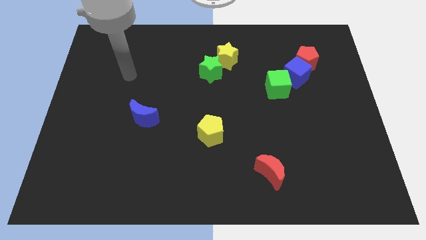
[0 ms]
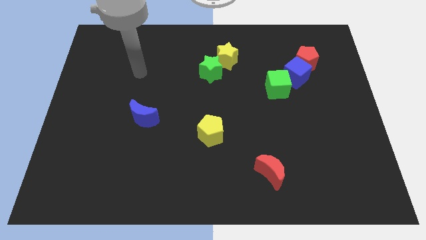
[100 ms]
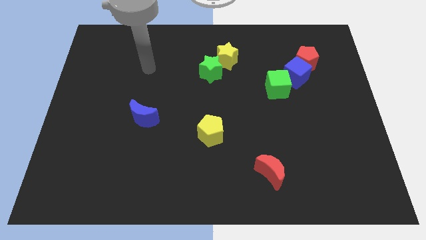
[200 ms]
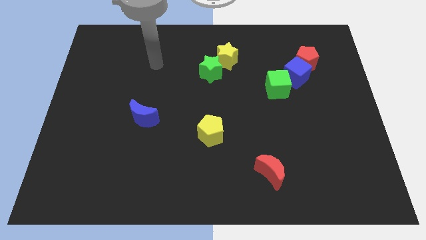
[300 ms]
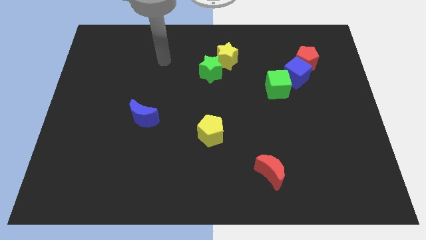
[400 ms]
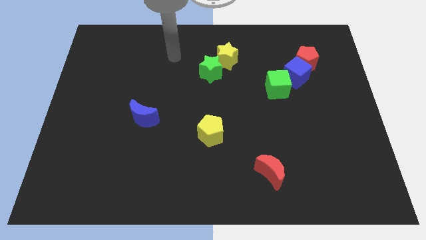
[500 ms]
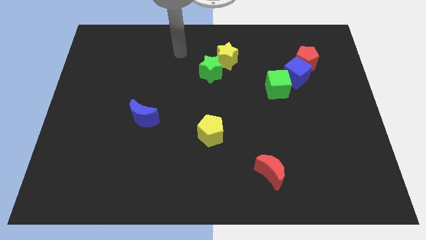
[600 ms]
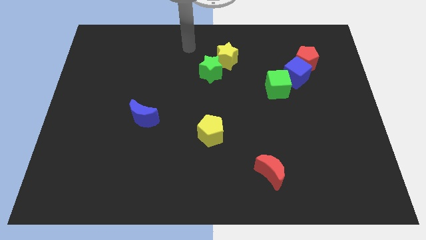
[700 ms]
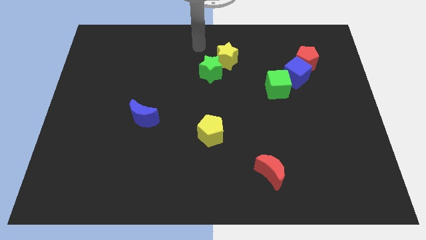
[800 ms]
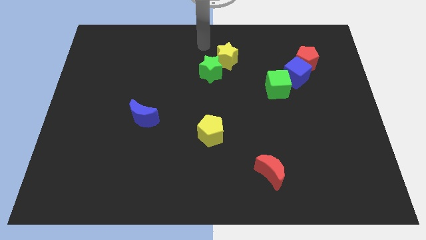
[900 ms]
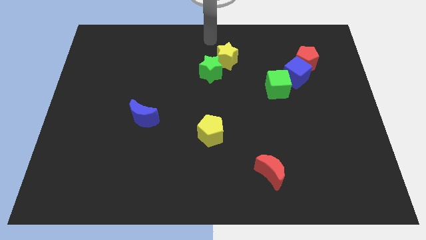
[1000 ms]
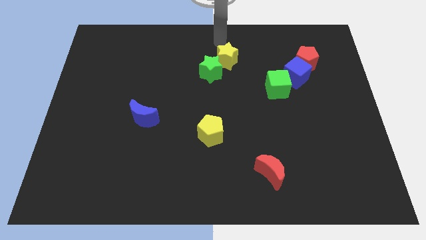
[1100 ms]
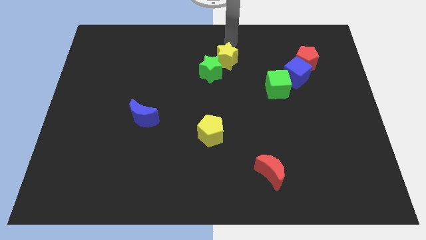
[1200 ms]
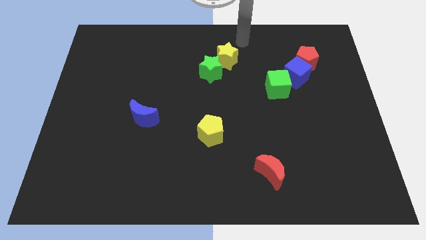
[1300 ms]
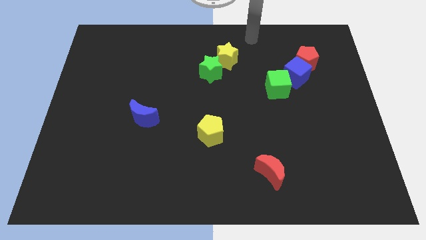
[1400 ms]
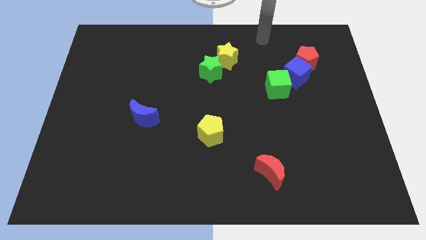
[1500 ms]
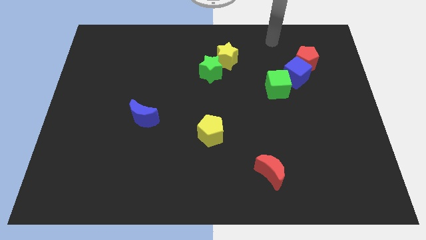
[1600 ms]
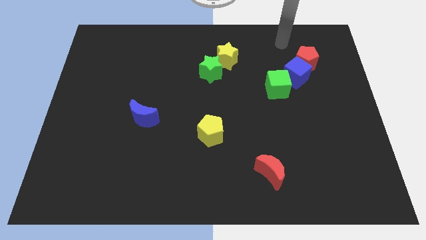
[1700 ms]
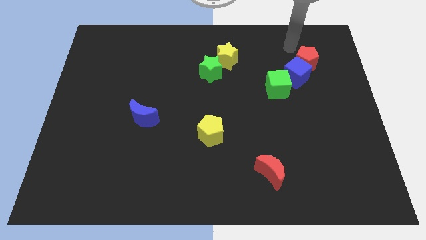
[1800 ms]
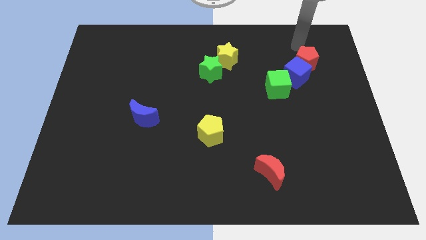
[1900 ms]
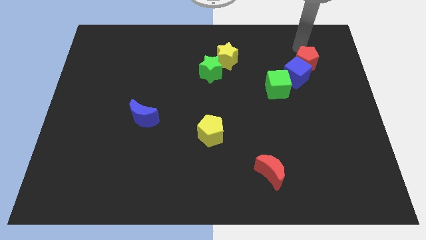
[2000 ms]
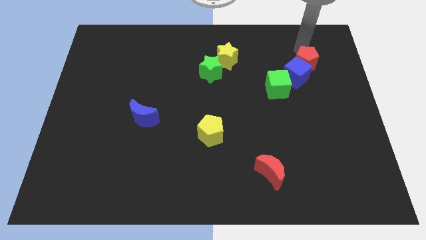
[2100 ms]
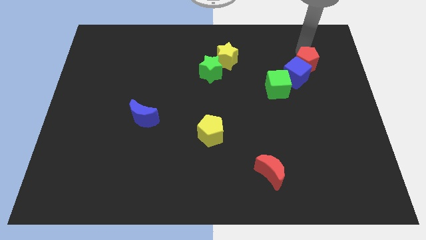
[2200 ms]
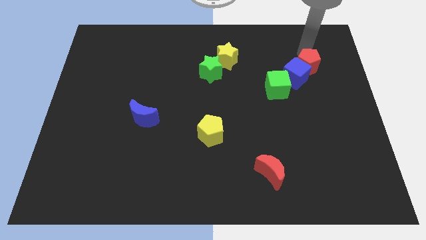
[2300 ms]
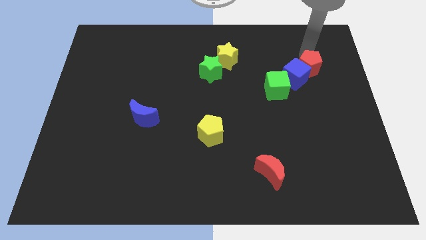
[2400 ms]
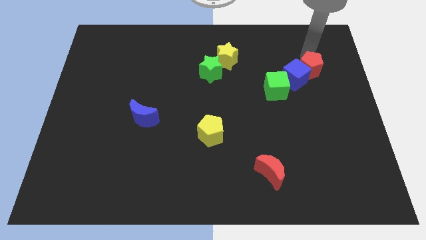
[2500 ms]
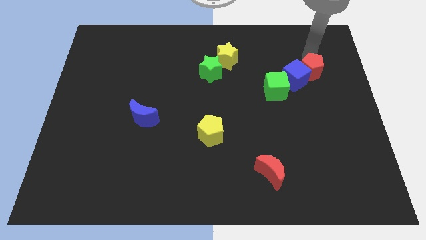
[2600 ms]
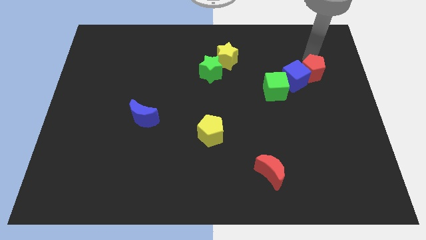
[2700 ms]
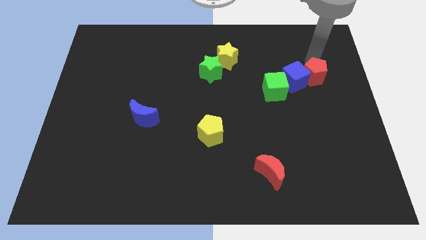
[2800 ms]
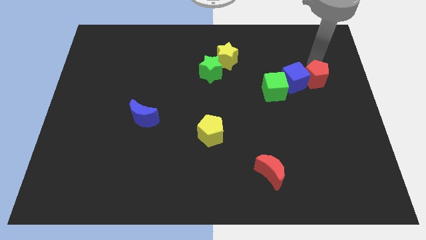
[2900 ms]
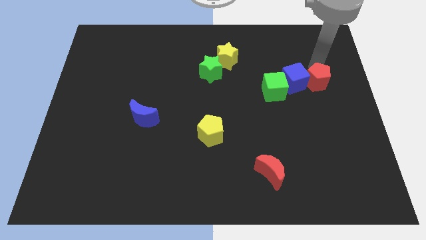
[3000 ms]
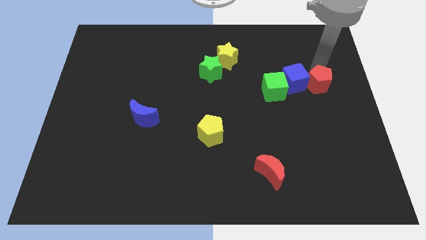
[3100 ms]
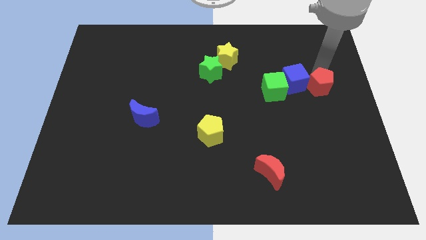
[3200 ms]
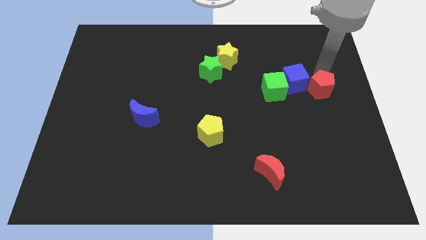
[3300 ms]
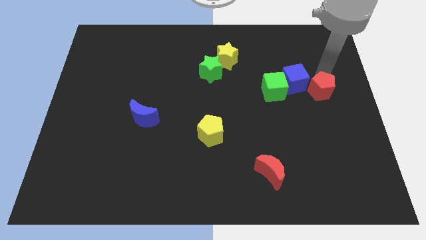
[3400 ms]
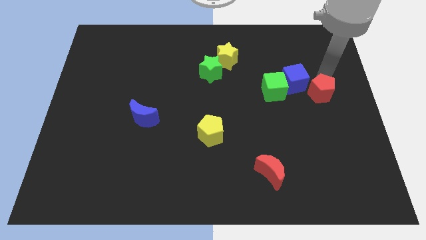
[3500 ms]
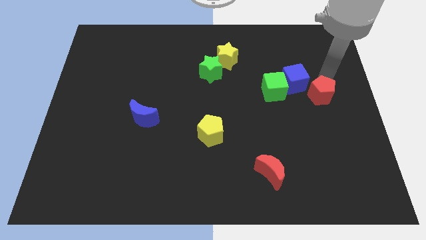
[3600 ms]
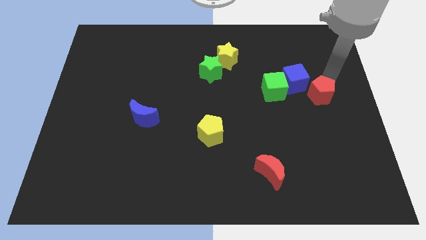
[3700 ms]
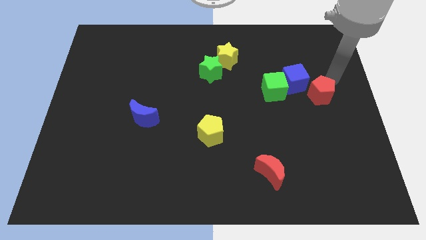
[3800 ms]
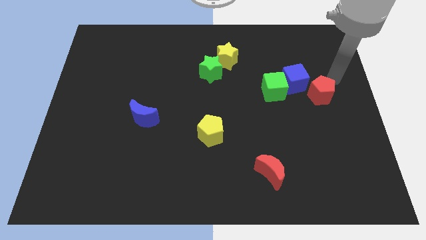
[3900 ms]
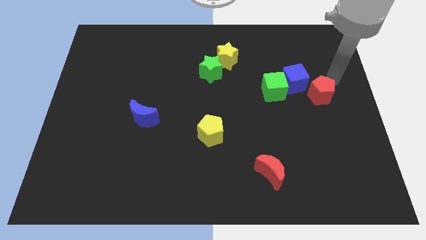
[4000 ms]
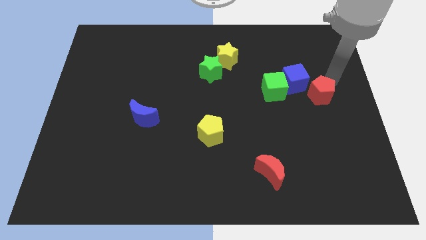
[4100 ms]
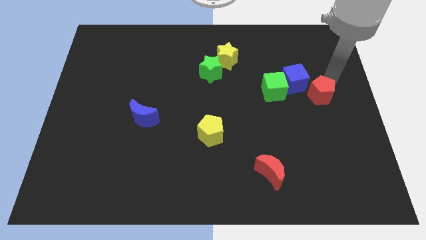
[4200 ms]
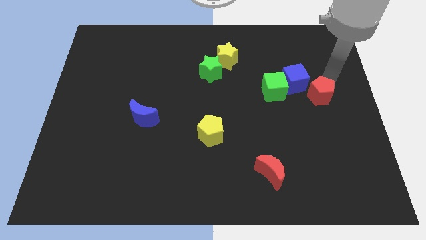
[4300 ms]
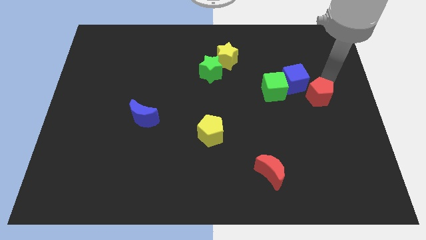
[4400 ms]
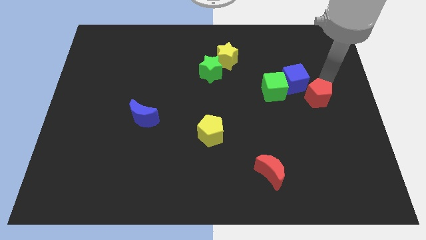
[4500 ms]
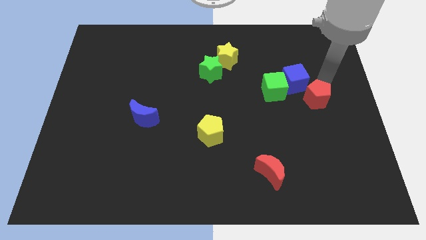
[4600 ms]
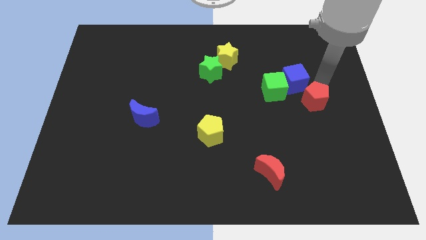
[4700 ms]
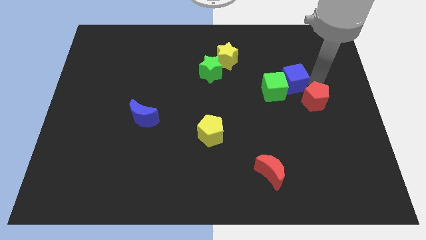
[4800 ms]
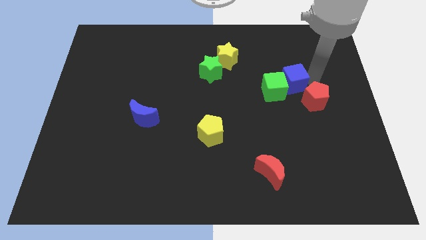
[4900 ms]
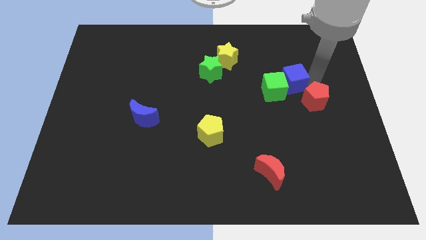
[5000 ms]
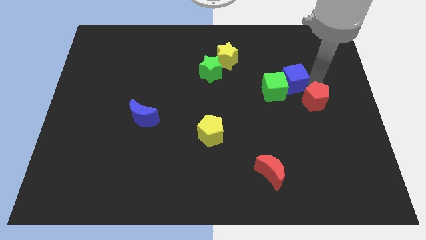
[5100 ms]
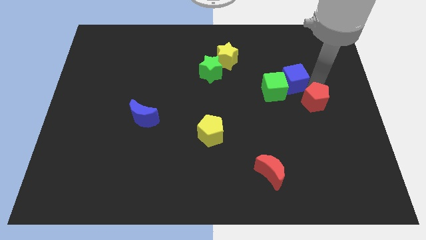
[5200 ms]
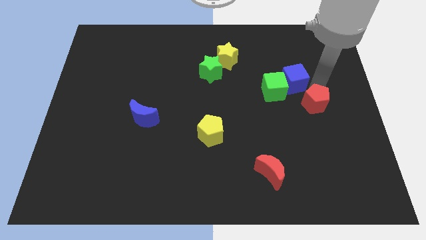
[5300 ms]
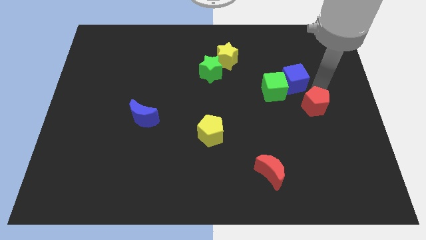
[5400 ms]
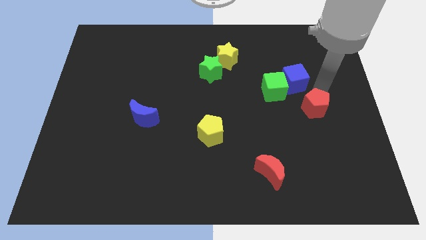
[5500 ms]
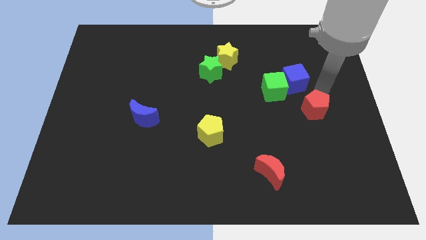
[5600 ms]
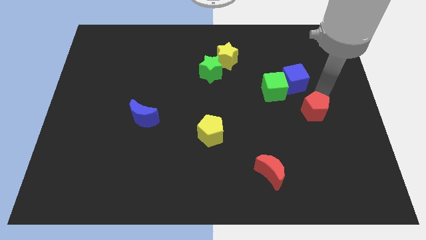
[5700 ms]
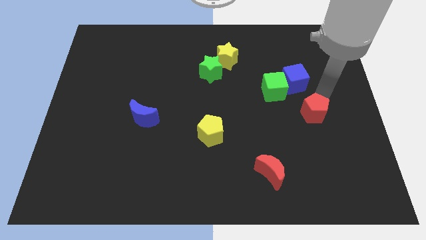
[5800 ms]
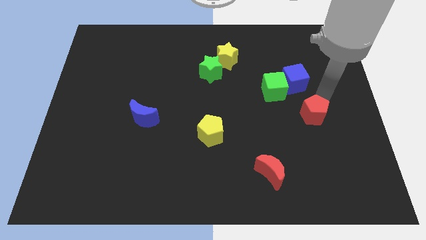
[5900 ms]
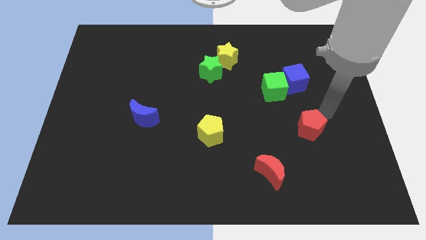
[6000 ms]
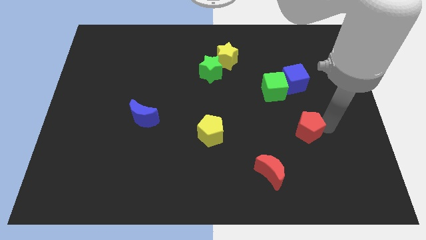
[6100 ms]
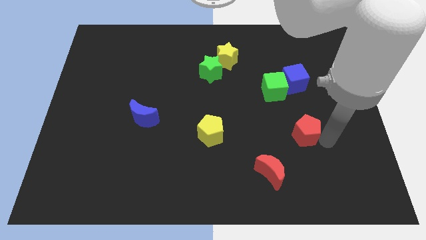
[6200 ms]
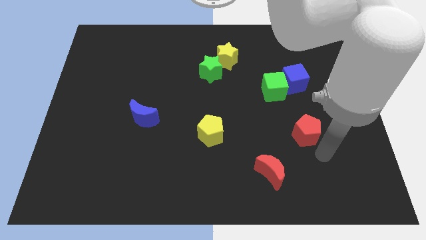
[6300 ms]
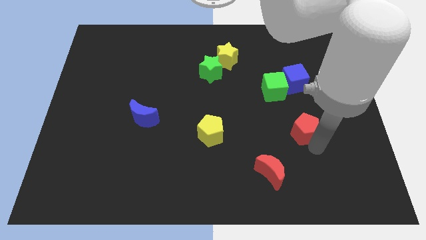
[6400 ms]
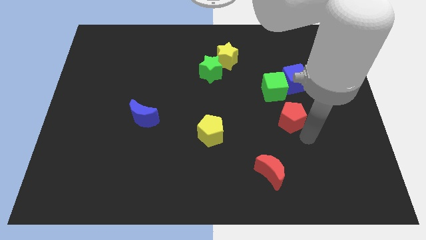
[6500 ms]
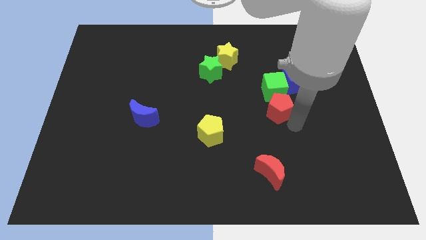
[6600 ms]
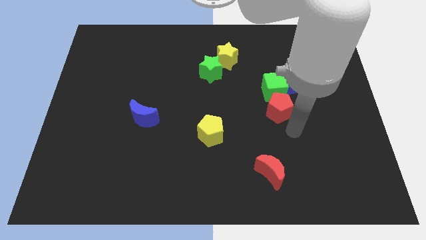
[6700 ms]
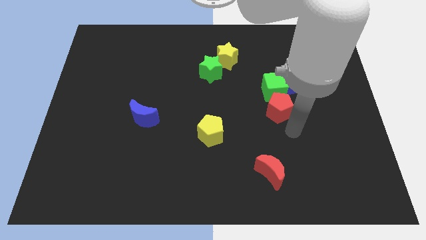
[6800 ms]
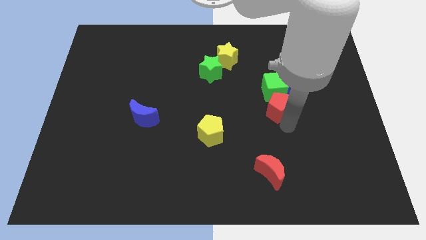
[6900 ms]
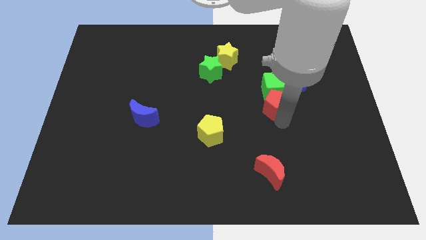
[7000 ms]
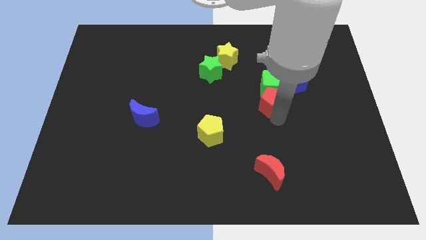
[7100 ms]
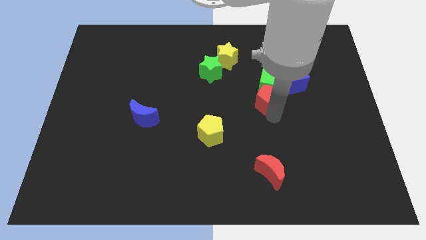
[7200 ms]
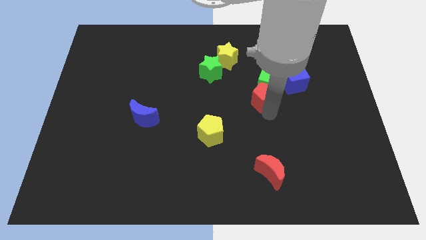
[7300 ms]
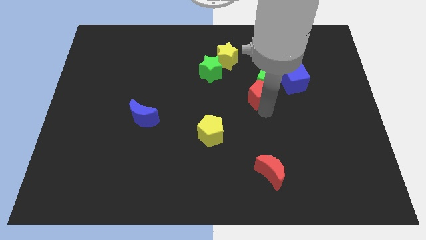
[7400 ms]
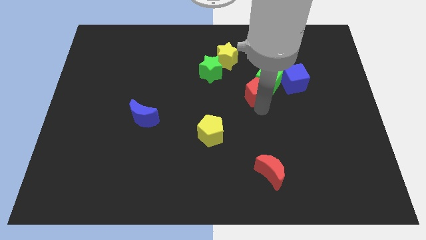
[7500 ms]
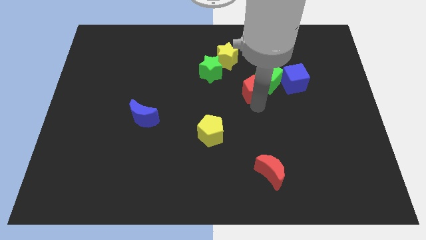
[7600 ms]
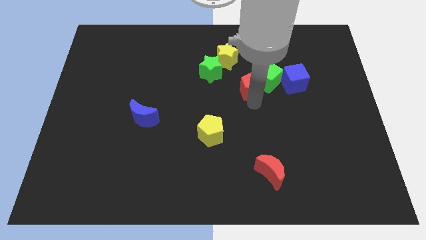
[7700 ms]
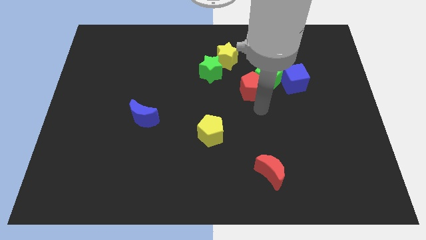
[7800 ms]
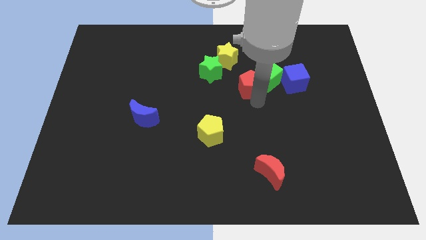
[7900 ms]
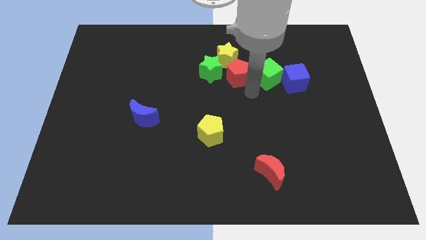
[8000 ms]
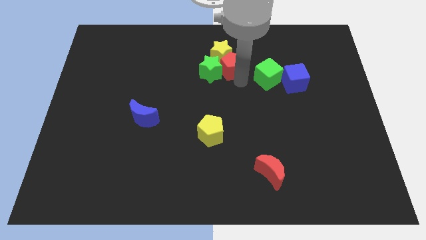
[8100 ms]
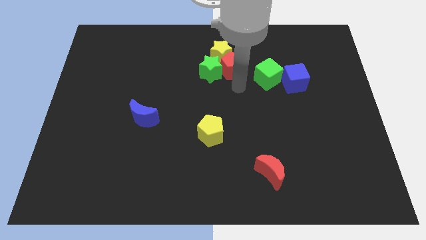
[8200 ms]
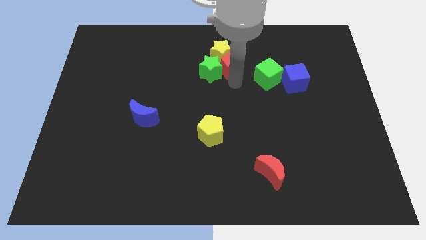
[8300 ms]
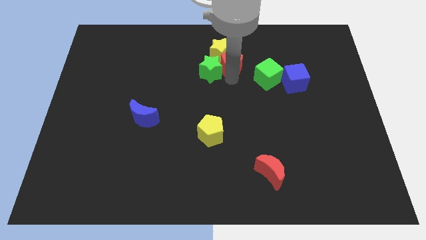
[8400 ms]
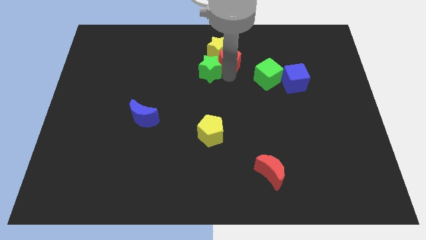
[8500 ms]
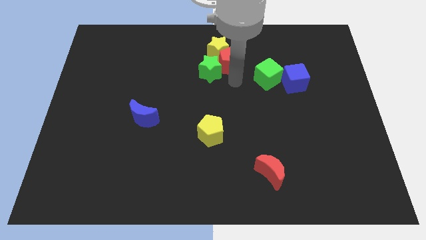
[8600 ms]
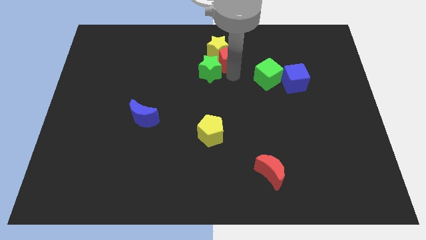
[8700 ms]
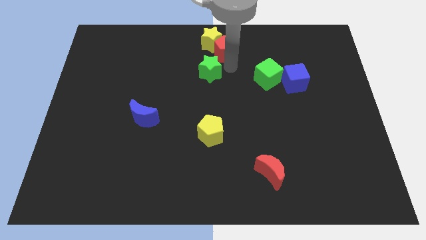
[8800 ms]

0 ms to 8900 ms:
push the red pentagon to the towards your base
